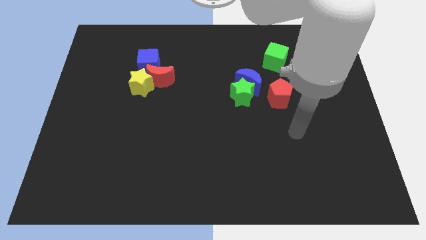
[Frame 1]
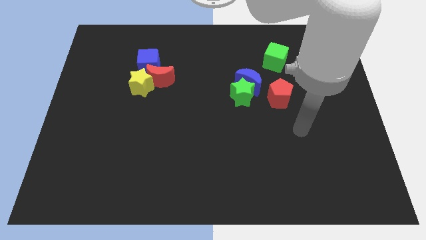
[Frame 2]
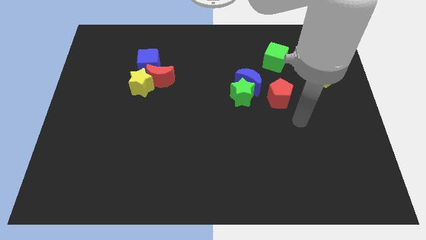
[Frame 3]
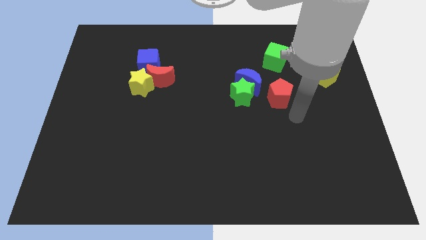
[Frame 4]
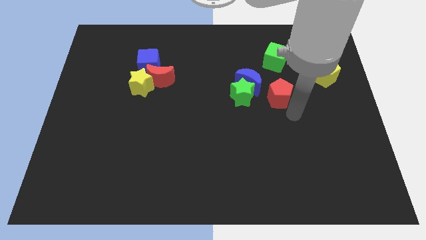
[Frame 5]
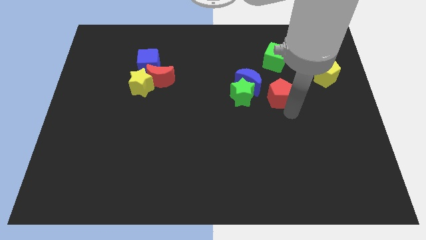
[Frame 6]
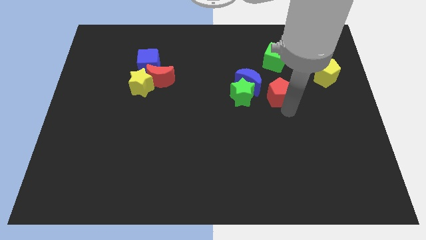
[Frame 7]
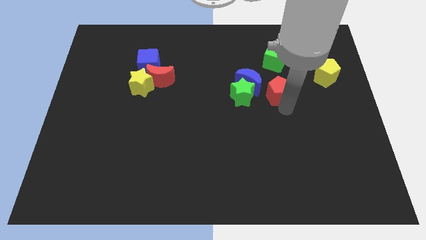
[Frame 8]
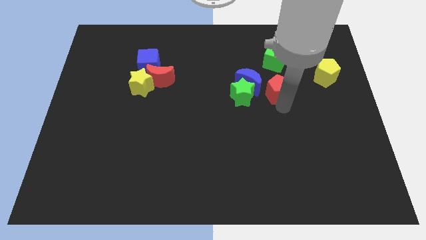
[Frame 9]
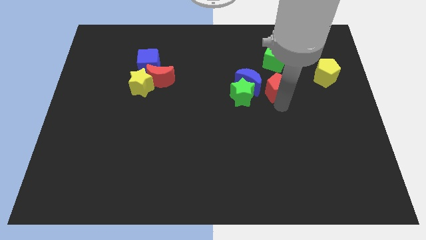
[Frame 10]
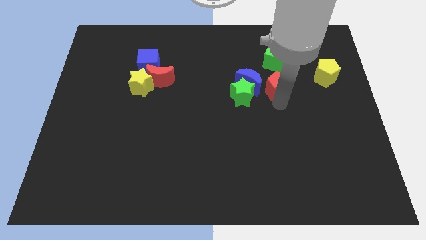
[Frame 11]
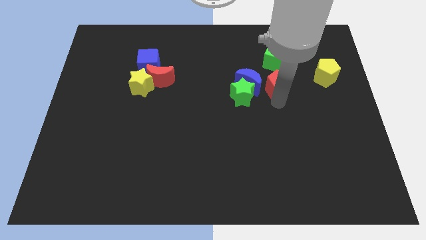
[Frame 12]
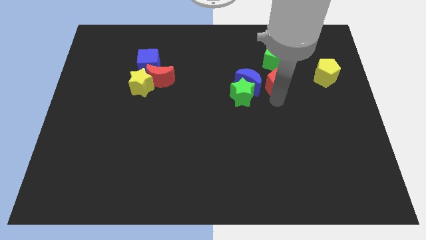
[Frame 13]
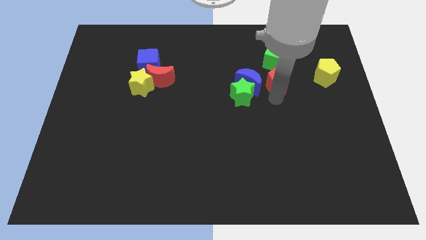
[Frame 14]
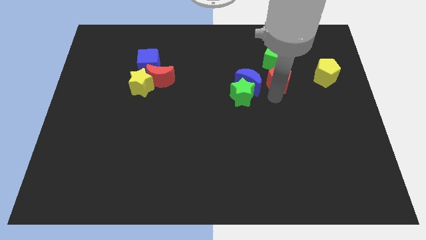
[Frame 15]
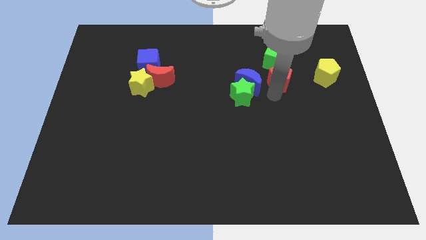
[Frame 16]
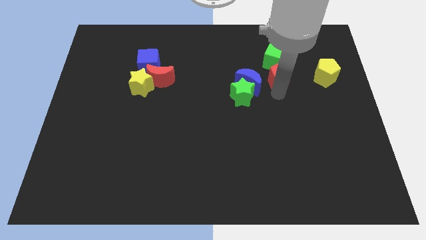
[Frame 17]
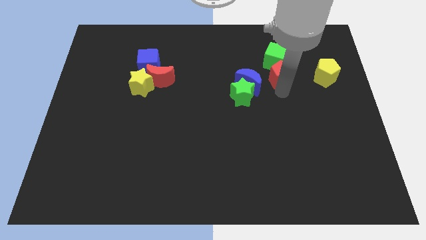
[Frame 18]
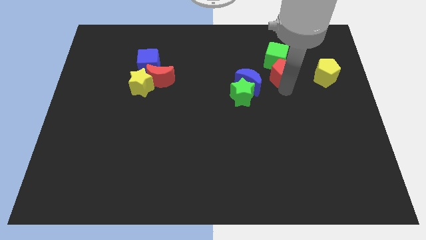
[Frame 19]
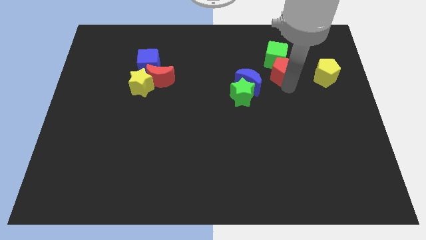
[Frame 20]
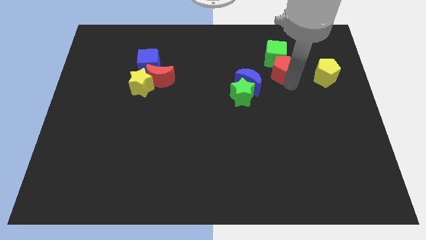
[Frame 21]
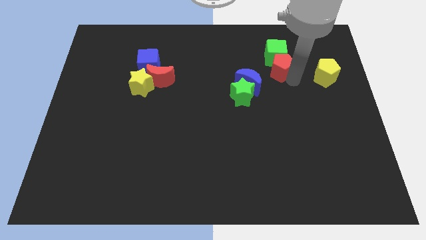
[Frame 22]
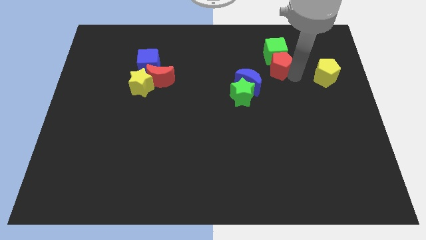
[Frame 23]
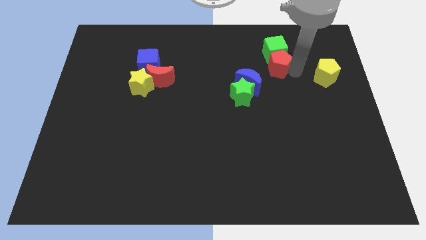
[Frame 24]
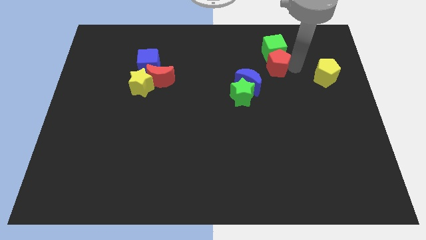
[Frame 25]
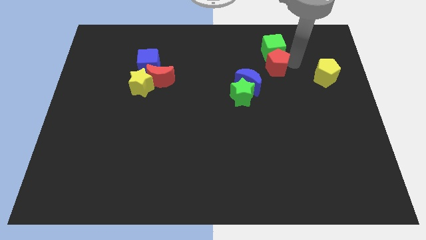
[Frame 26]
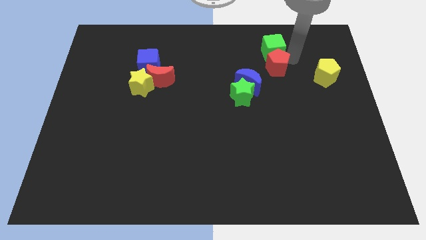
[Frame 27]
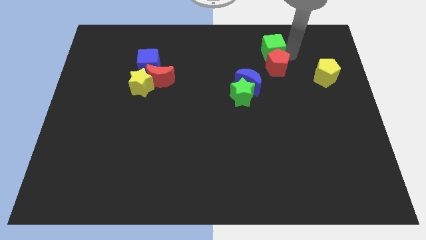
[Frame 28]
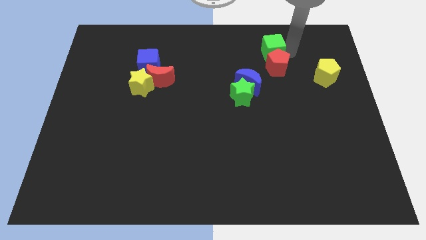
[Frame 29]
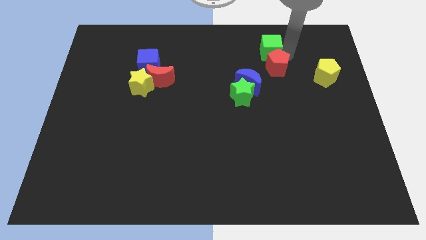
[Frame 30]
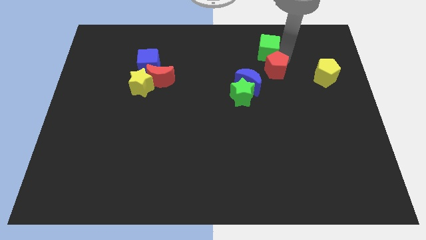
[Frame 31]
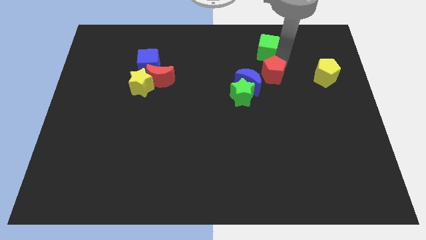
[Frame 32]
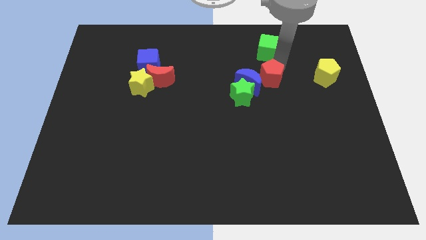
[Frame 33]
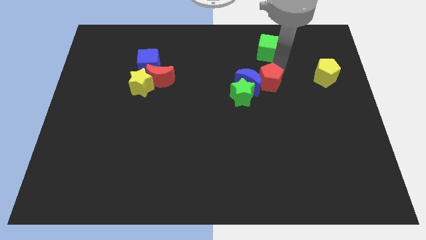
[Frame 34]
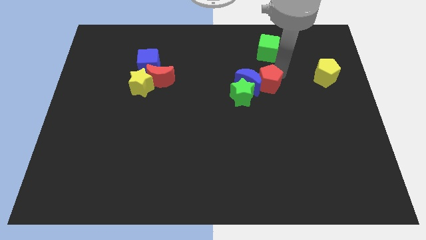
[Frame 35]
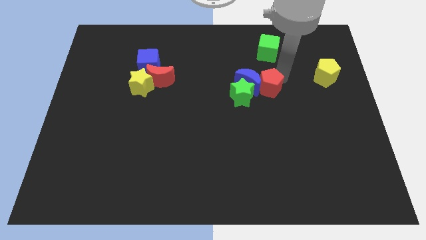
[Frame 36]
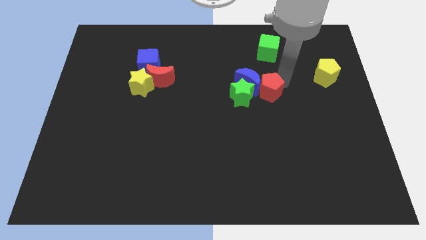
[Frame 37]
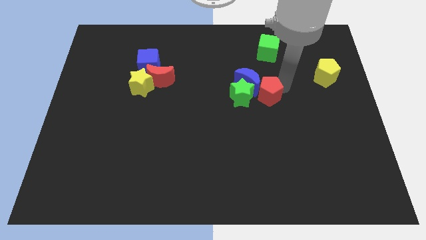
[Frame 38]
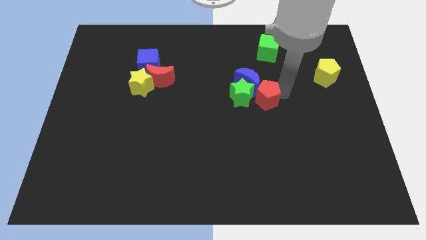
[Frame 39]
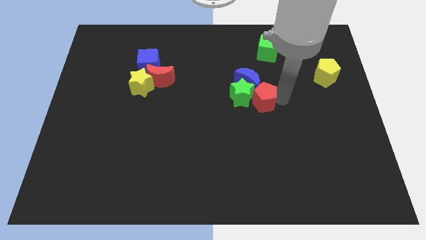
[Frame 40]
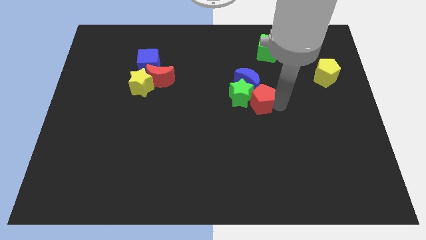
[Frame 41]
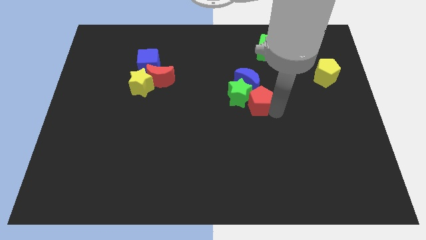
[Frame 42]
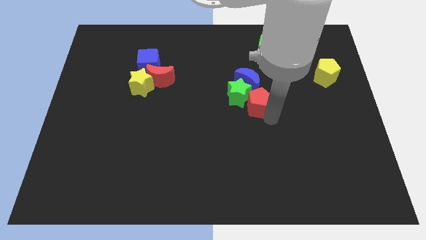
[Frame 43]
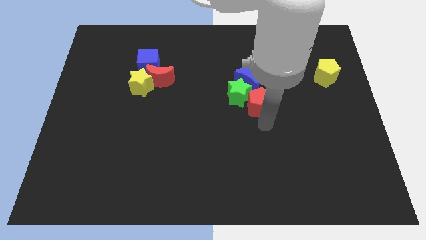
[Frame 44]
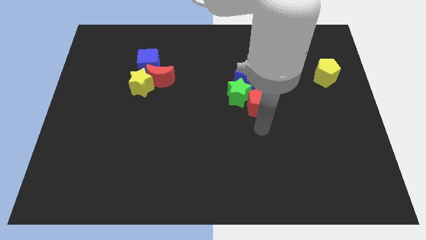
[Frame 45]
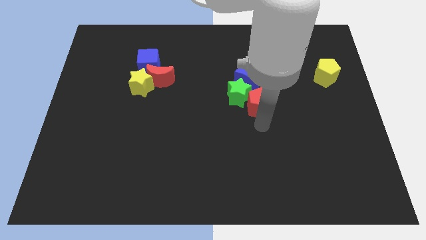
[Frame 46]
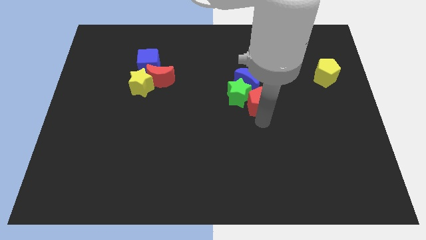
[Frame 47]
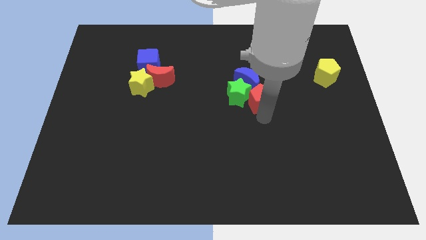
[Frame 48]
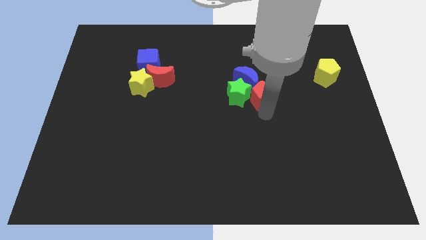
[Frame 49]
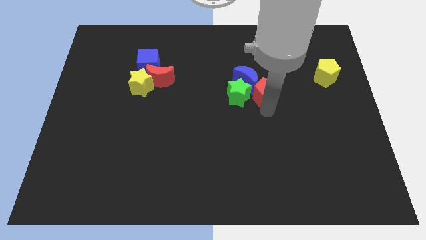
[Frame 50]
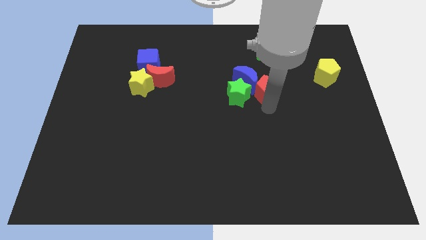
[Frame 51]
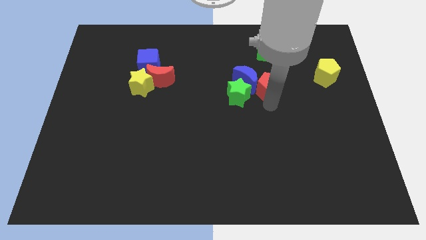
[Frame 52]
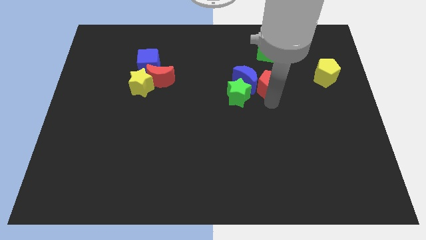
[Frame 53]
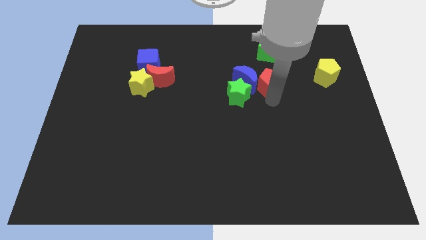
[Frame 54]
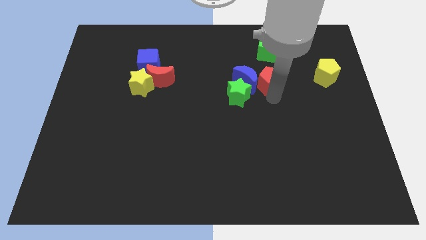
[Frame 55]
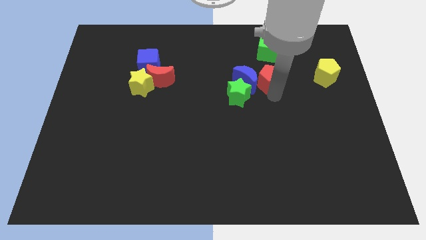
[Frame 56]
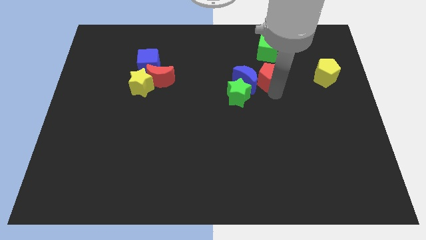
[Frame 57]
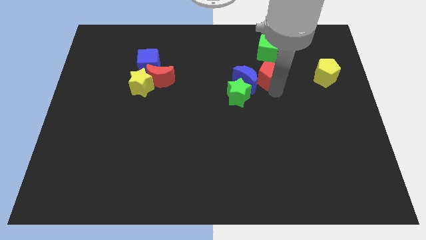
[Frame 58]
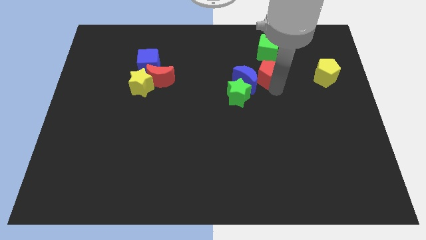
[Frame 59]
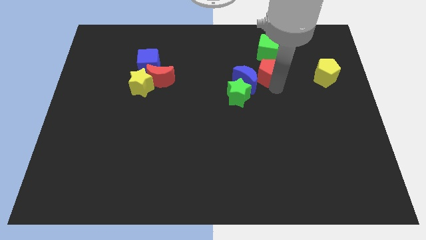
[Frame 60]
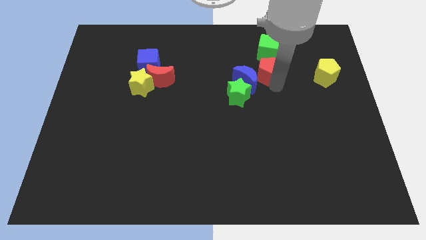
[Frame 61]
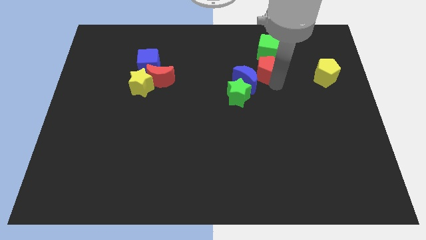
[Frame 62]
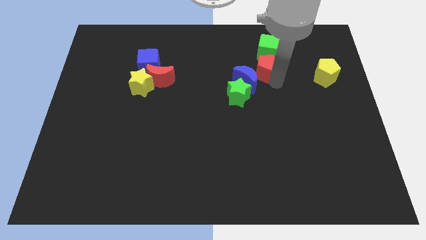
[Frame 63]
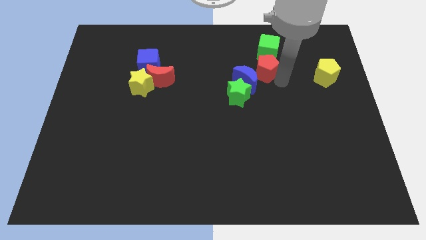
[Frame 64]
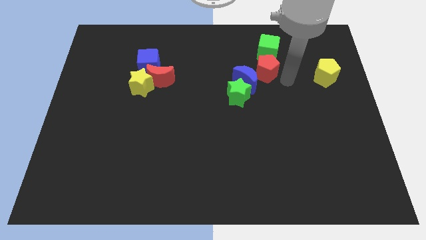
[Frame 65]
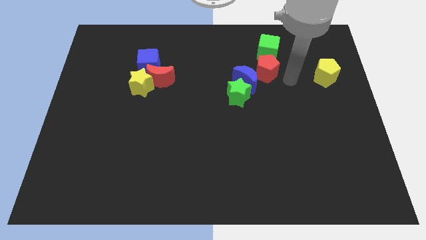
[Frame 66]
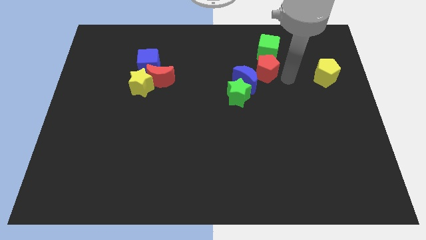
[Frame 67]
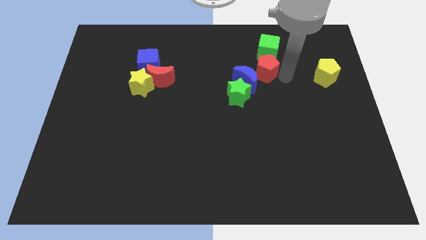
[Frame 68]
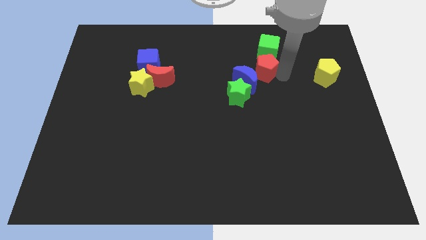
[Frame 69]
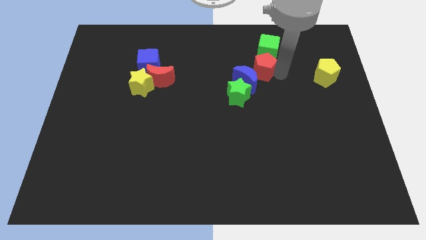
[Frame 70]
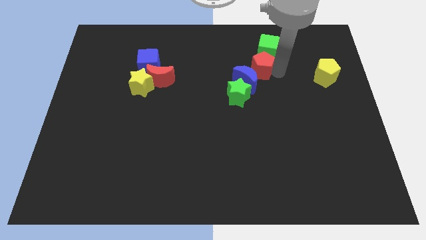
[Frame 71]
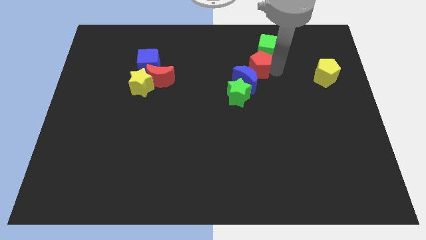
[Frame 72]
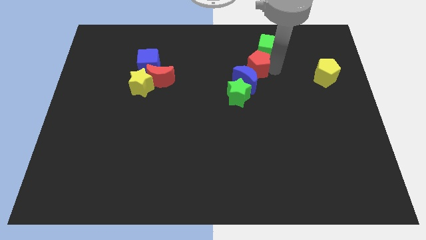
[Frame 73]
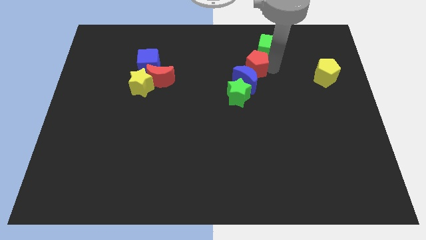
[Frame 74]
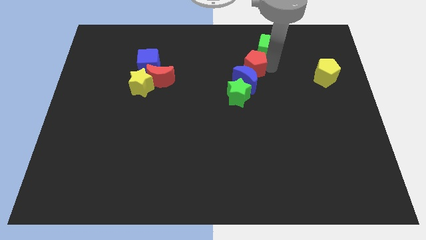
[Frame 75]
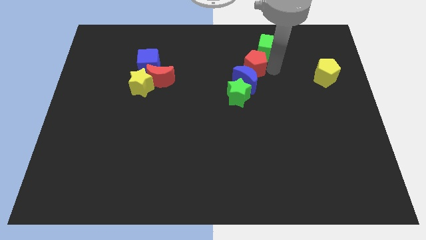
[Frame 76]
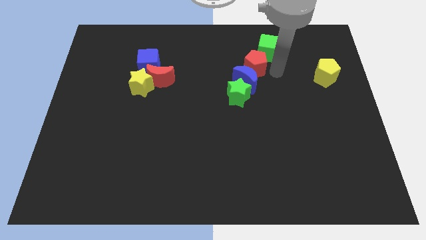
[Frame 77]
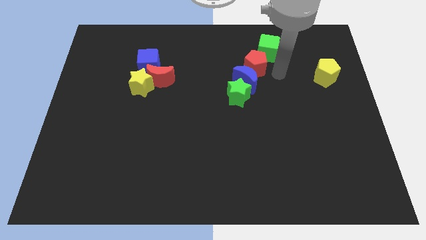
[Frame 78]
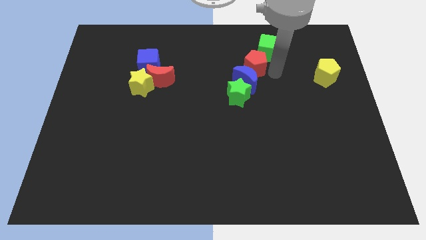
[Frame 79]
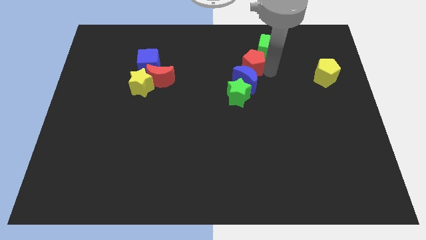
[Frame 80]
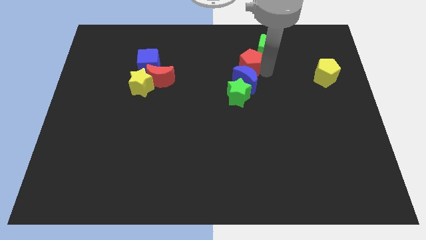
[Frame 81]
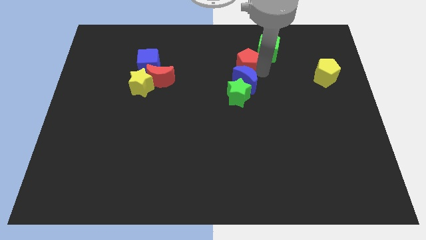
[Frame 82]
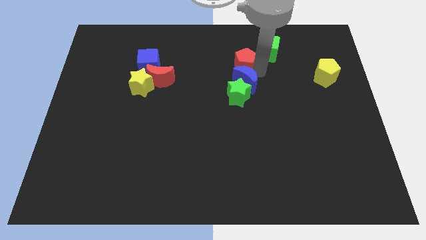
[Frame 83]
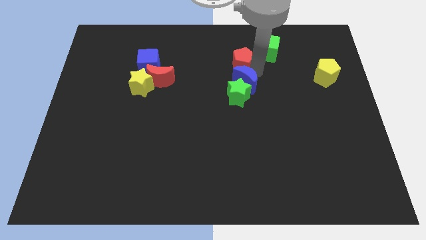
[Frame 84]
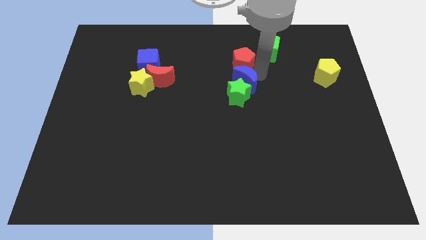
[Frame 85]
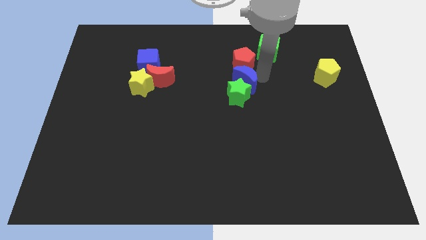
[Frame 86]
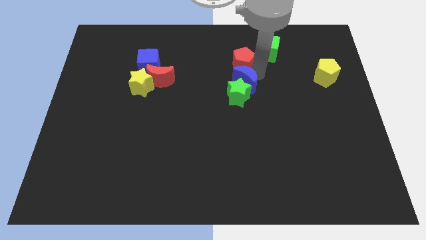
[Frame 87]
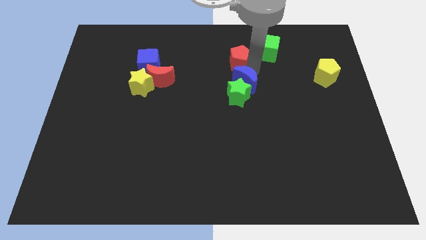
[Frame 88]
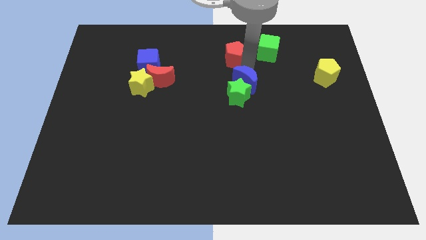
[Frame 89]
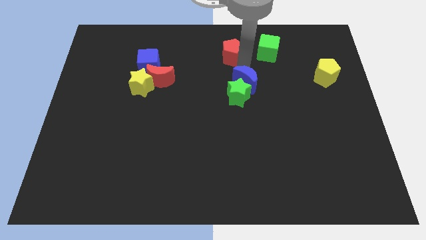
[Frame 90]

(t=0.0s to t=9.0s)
push the red pentagon to the top
